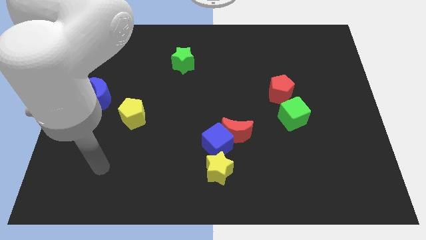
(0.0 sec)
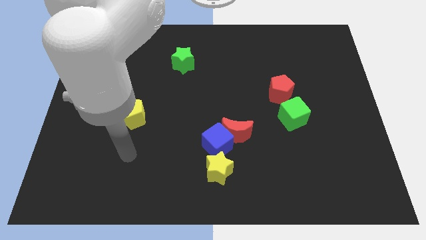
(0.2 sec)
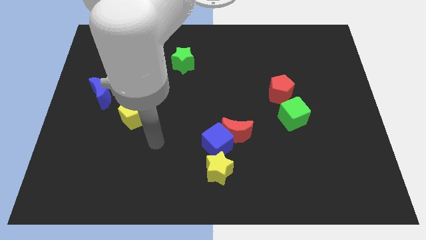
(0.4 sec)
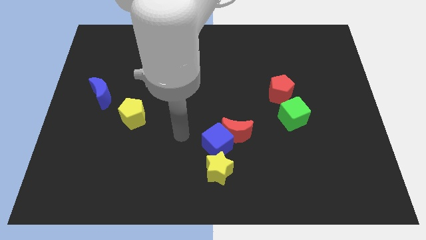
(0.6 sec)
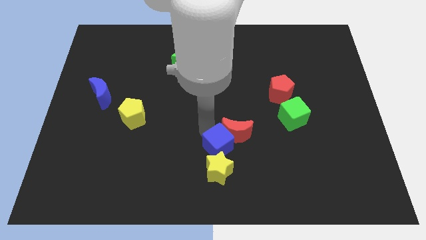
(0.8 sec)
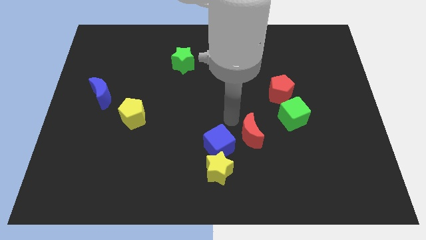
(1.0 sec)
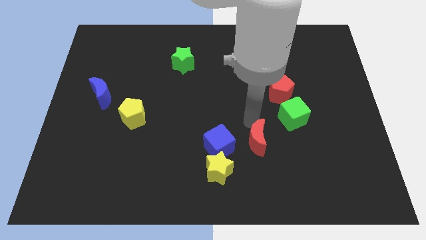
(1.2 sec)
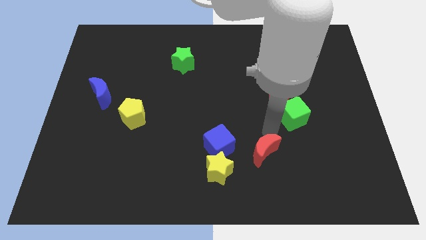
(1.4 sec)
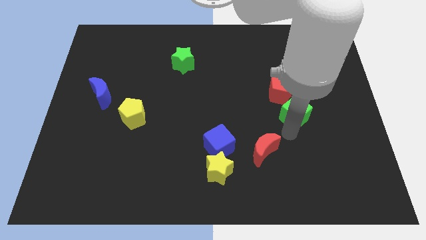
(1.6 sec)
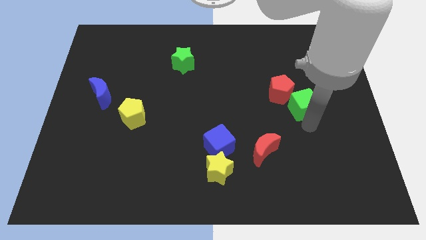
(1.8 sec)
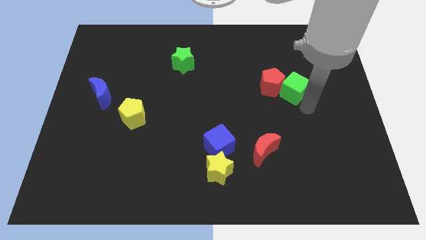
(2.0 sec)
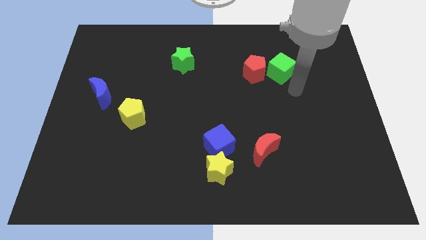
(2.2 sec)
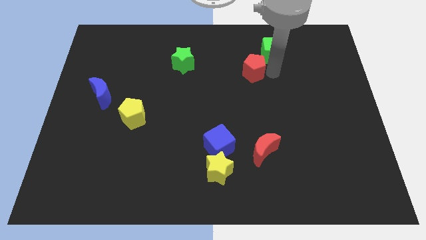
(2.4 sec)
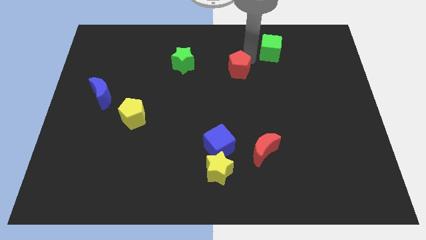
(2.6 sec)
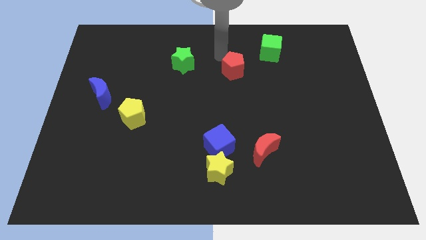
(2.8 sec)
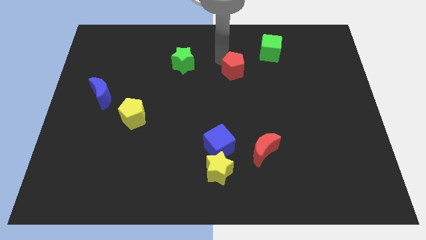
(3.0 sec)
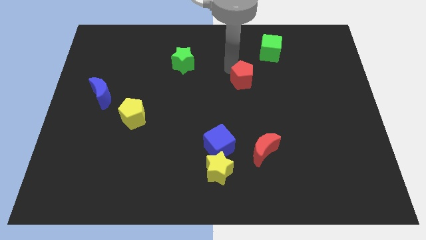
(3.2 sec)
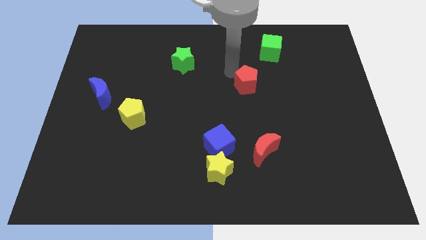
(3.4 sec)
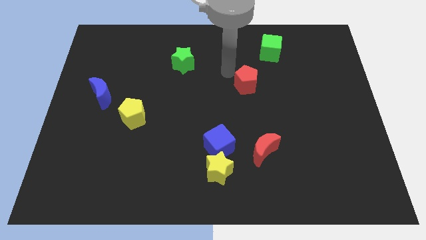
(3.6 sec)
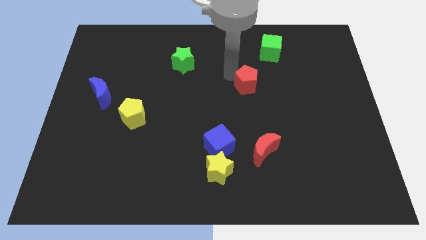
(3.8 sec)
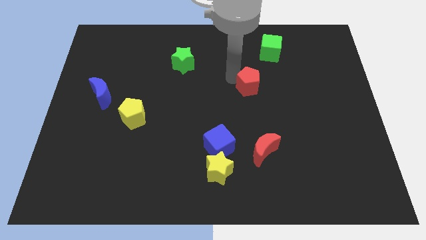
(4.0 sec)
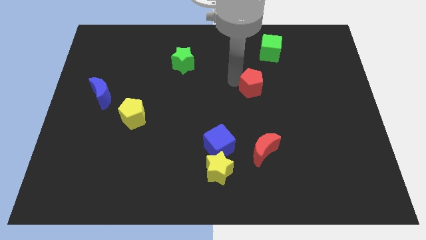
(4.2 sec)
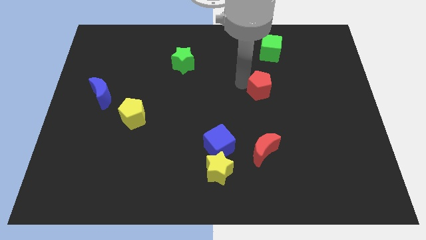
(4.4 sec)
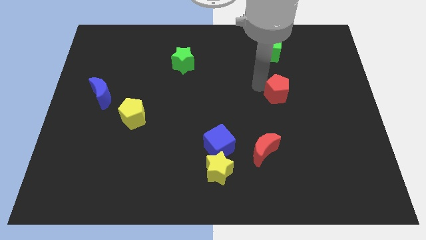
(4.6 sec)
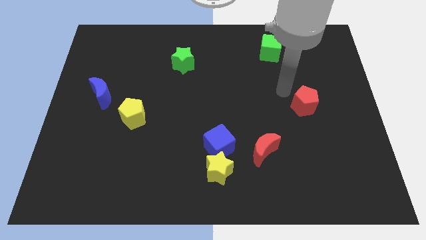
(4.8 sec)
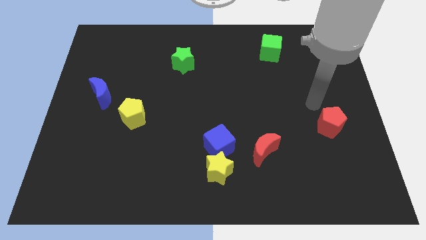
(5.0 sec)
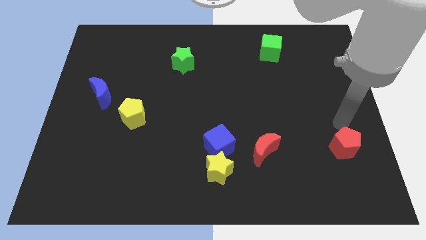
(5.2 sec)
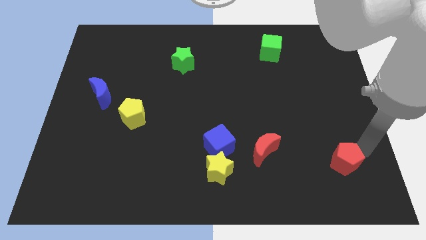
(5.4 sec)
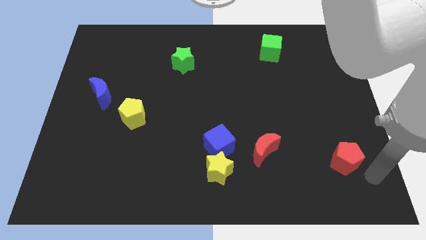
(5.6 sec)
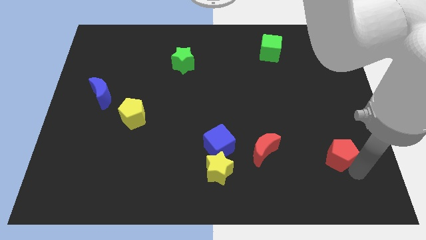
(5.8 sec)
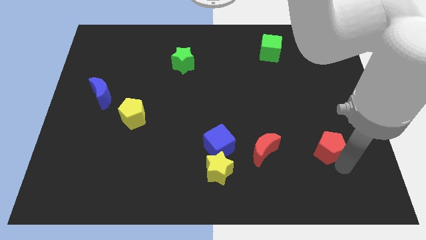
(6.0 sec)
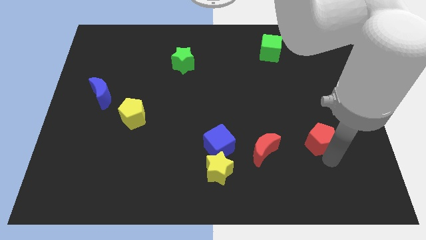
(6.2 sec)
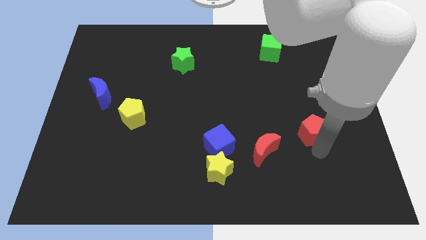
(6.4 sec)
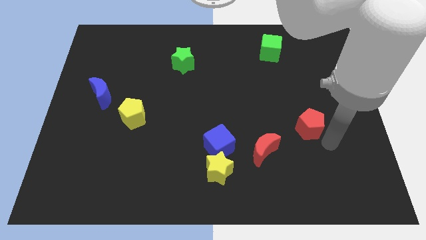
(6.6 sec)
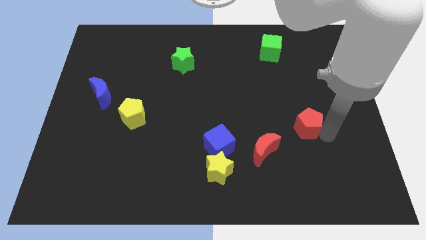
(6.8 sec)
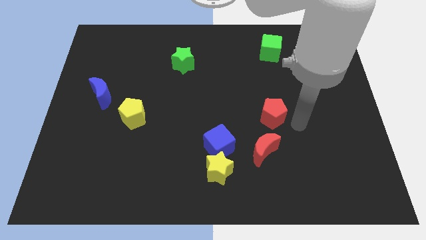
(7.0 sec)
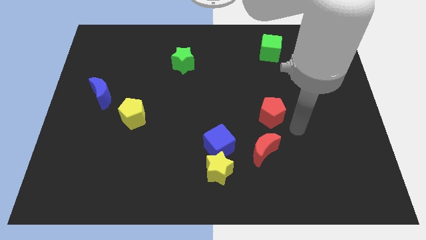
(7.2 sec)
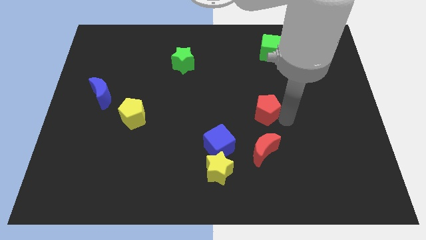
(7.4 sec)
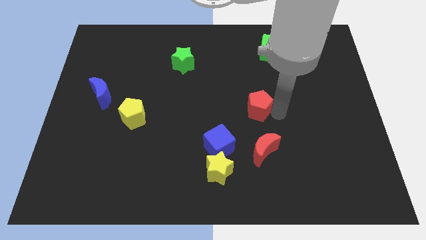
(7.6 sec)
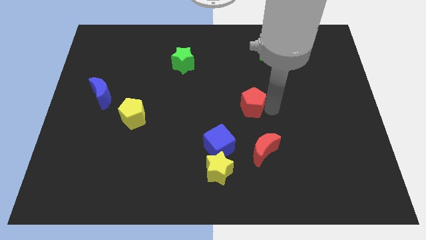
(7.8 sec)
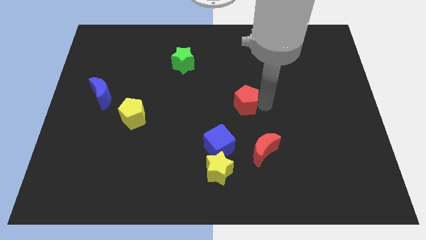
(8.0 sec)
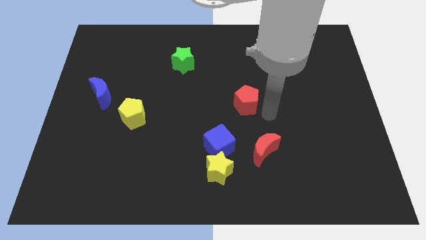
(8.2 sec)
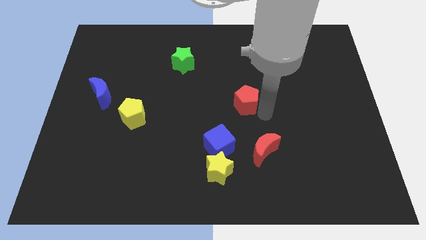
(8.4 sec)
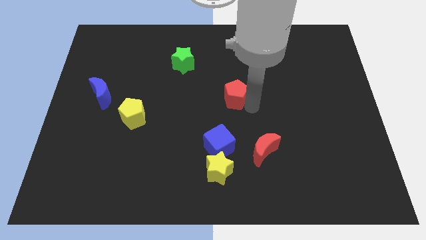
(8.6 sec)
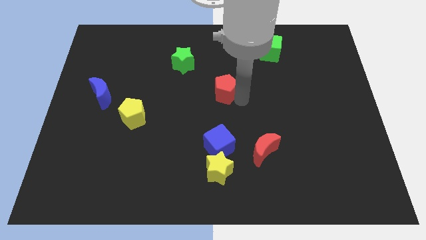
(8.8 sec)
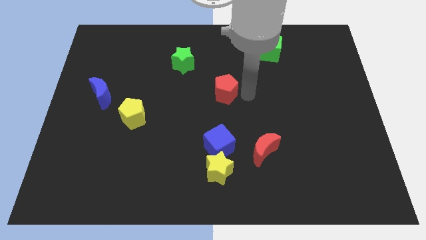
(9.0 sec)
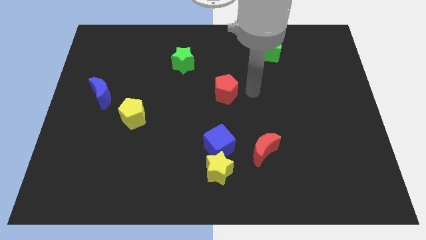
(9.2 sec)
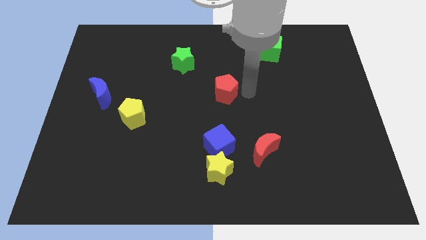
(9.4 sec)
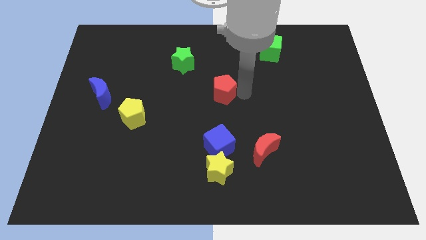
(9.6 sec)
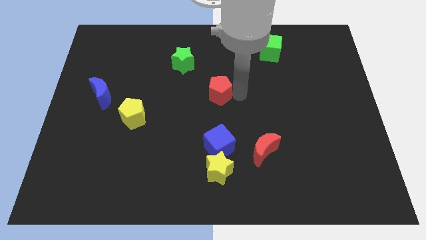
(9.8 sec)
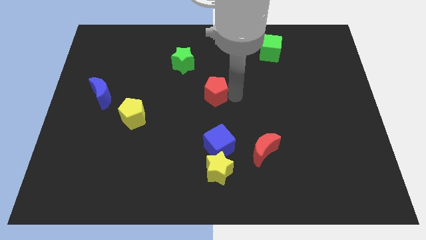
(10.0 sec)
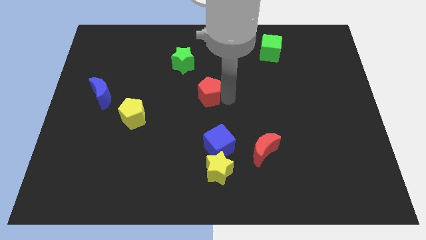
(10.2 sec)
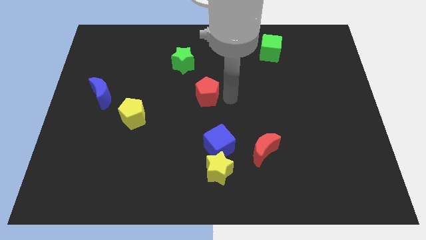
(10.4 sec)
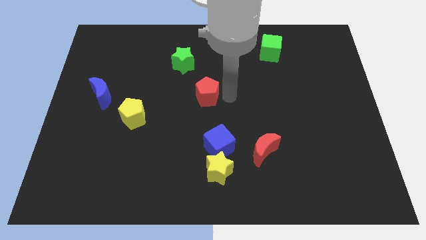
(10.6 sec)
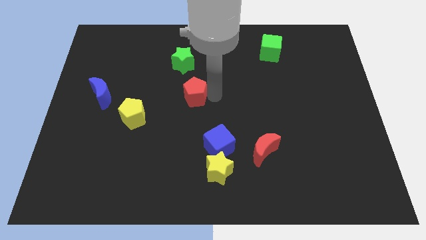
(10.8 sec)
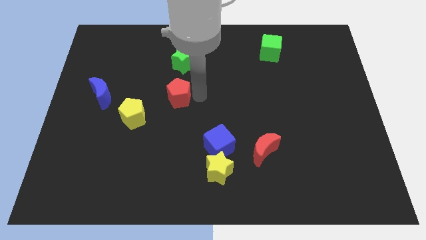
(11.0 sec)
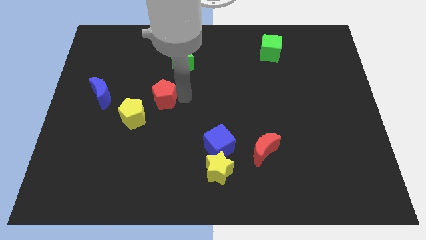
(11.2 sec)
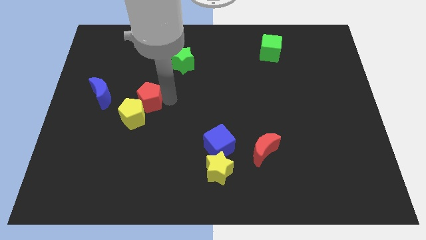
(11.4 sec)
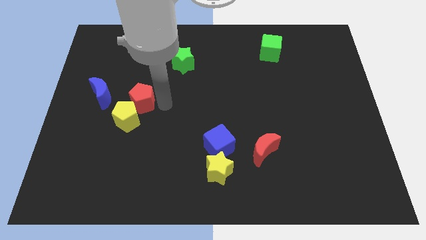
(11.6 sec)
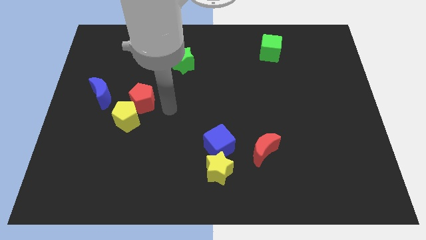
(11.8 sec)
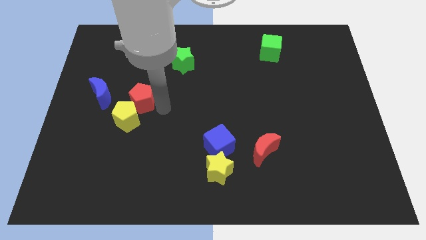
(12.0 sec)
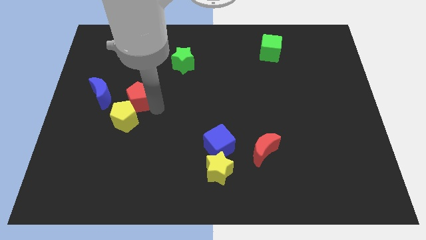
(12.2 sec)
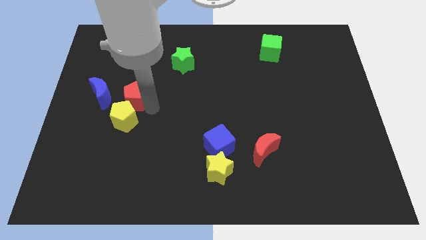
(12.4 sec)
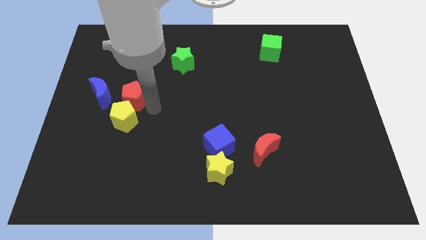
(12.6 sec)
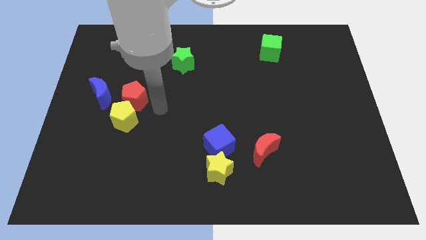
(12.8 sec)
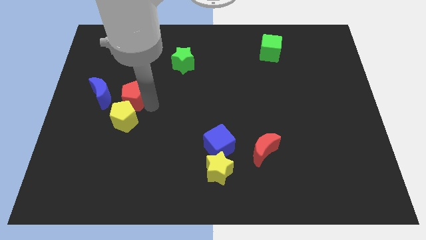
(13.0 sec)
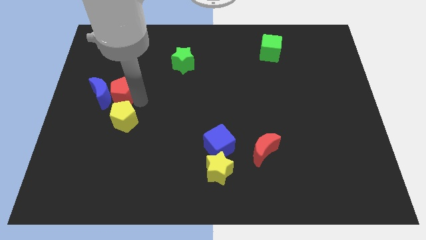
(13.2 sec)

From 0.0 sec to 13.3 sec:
put the red pentagon towards the blue moon
